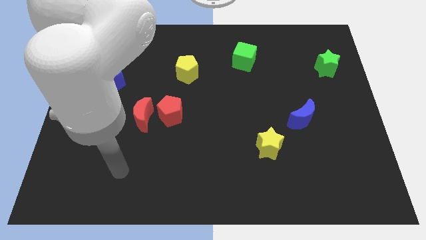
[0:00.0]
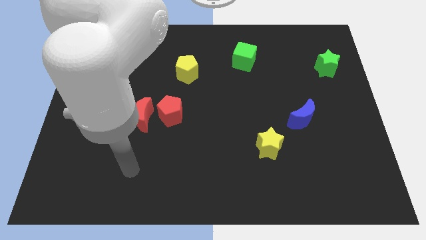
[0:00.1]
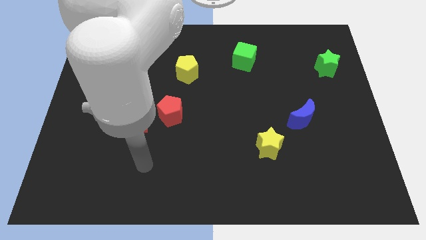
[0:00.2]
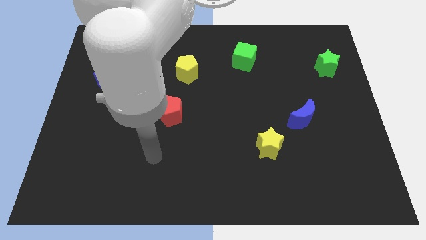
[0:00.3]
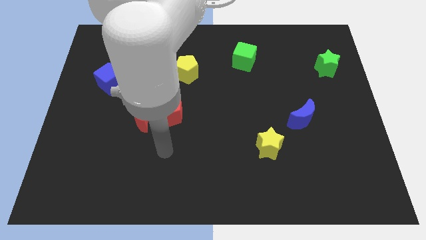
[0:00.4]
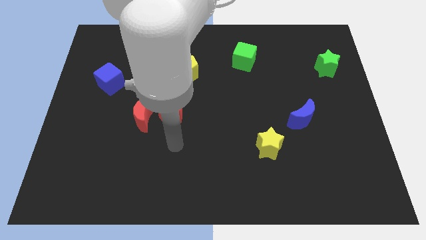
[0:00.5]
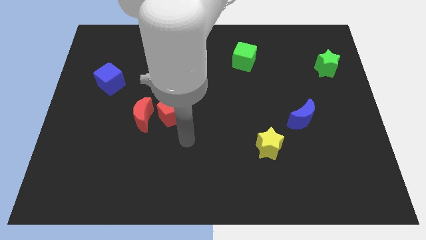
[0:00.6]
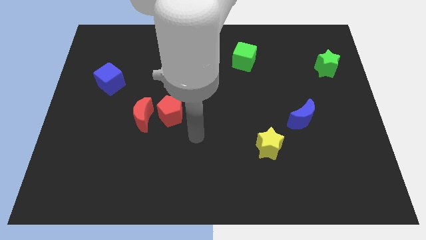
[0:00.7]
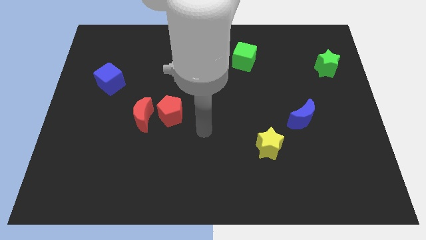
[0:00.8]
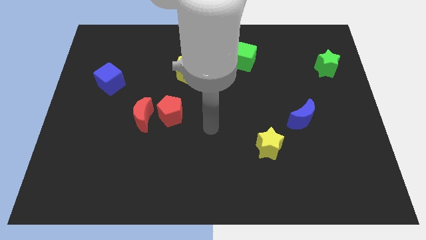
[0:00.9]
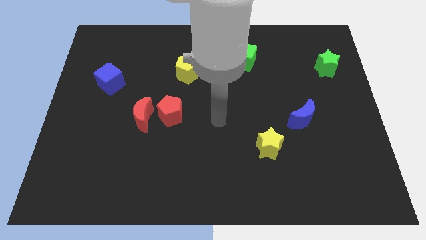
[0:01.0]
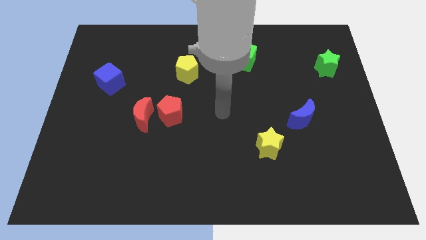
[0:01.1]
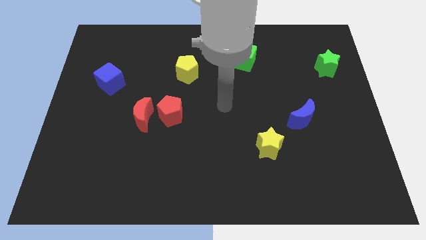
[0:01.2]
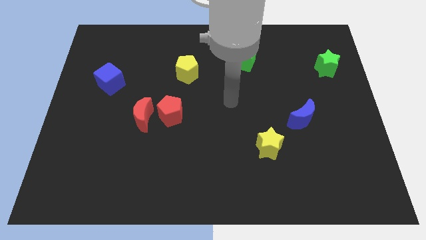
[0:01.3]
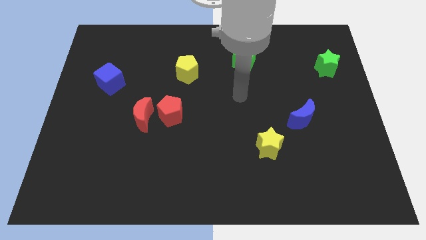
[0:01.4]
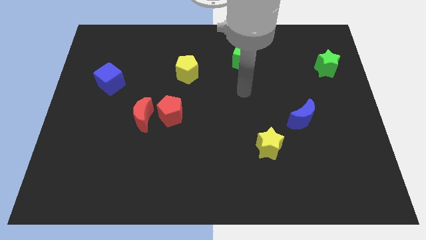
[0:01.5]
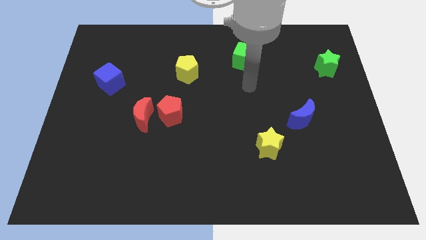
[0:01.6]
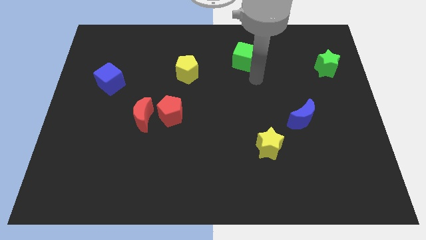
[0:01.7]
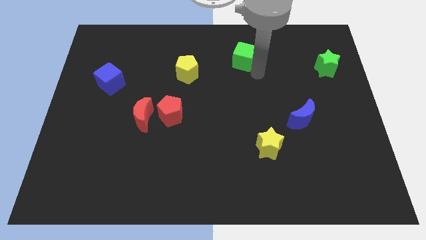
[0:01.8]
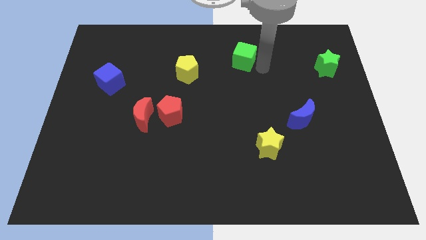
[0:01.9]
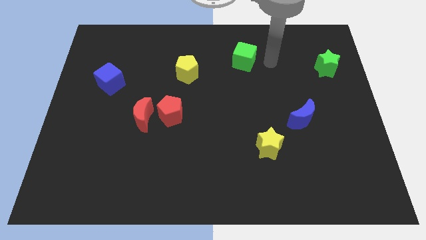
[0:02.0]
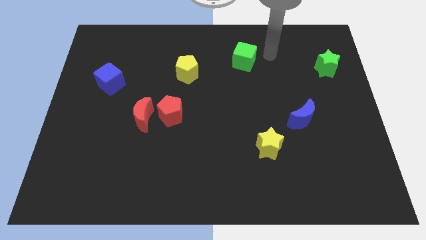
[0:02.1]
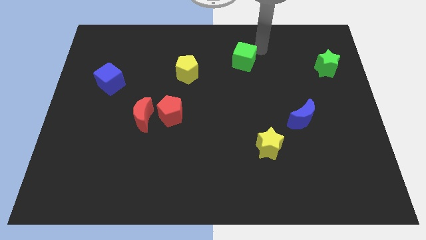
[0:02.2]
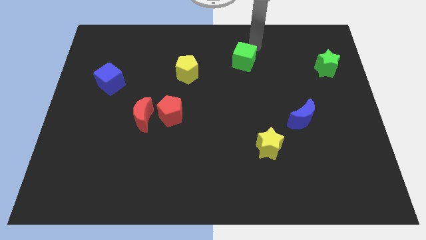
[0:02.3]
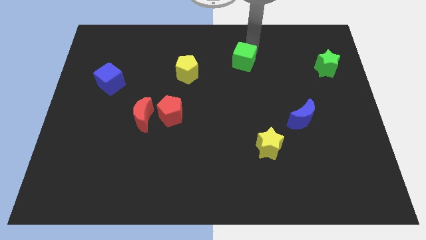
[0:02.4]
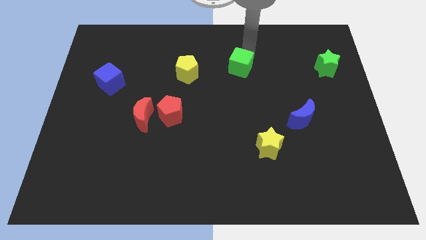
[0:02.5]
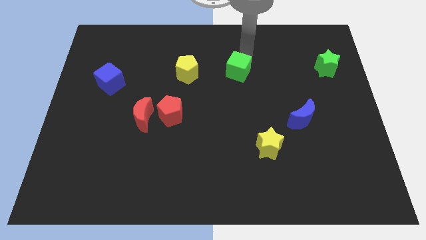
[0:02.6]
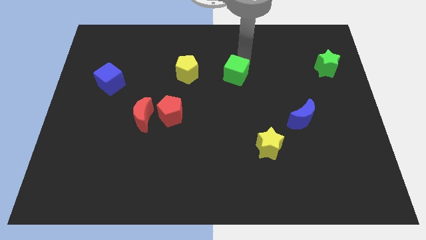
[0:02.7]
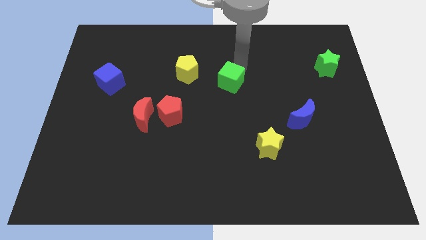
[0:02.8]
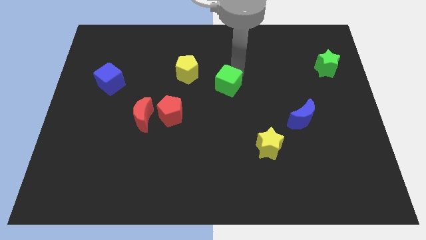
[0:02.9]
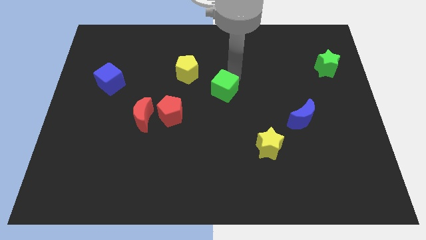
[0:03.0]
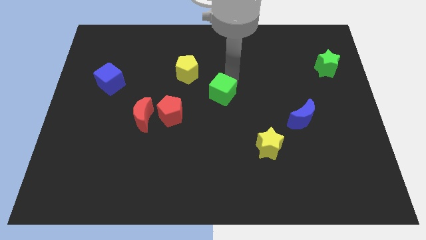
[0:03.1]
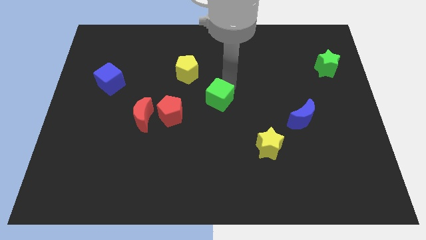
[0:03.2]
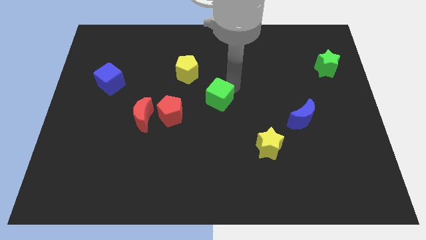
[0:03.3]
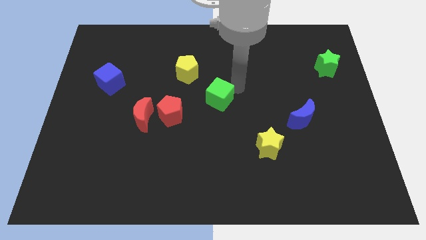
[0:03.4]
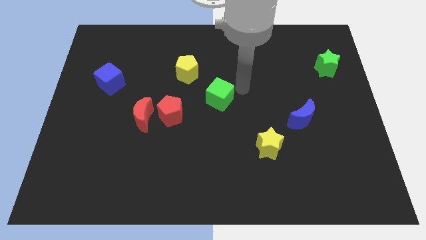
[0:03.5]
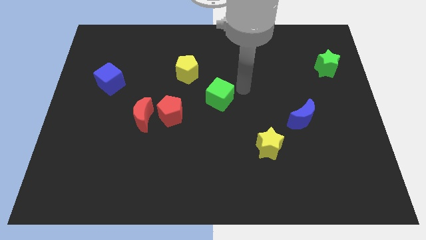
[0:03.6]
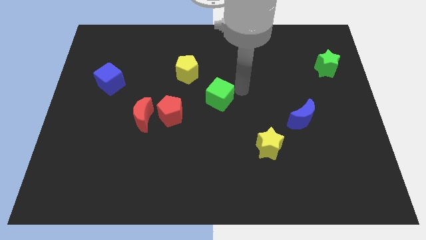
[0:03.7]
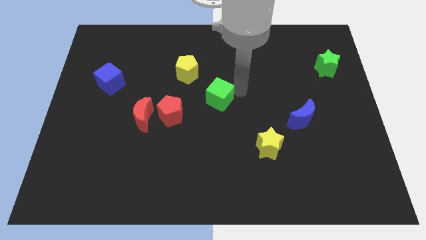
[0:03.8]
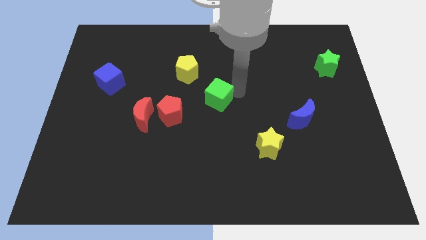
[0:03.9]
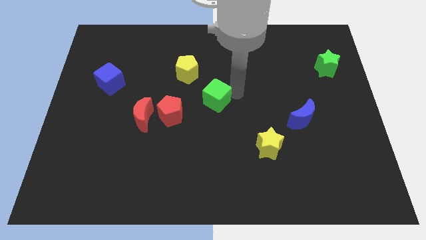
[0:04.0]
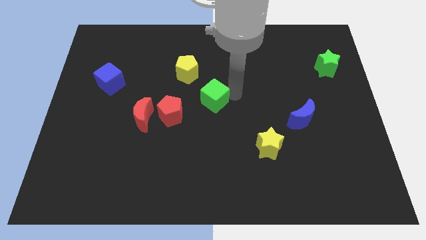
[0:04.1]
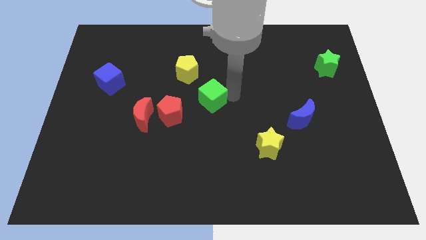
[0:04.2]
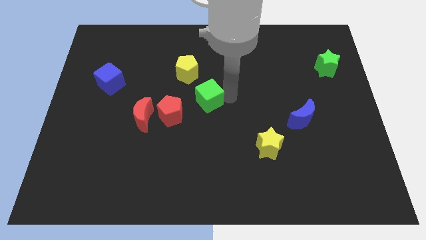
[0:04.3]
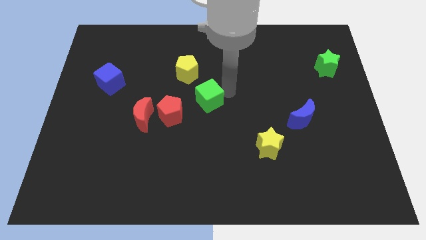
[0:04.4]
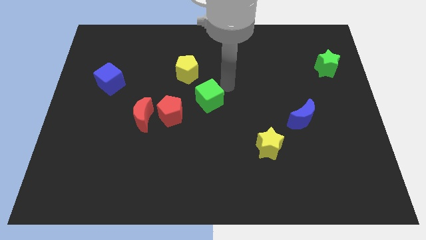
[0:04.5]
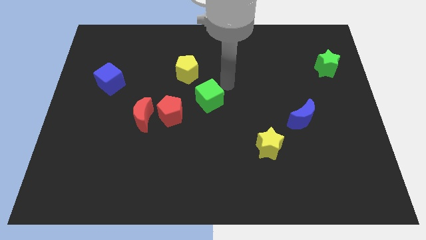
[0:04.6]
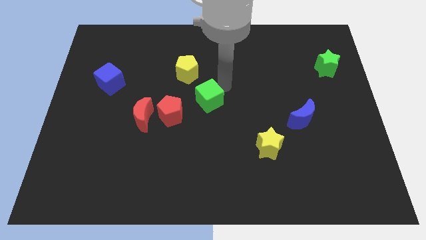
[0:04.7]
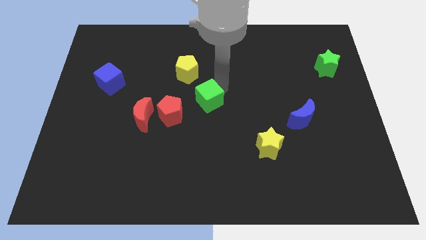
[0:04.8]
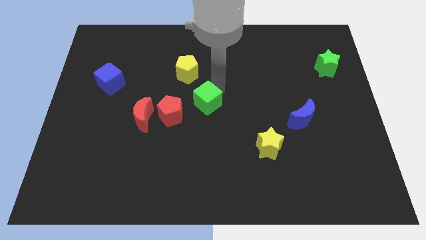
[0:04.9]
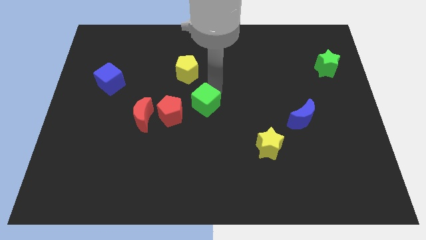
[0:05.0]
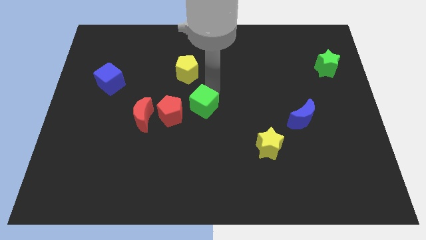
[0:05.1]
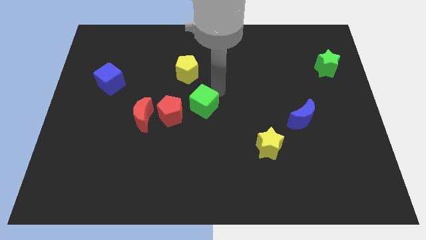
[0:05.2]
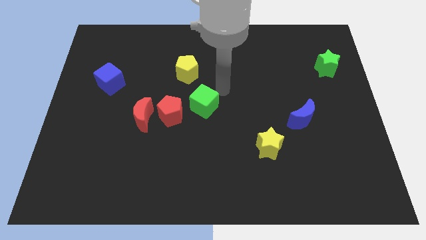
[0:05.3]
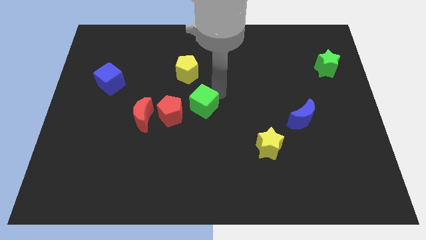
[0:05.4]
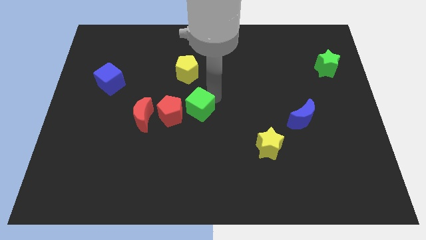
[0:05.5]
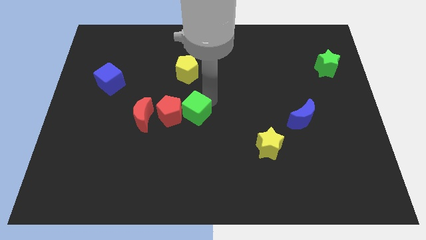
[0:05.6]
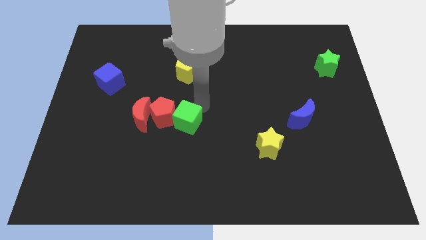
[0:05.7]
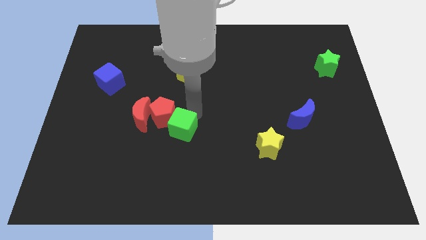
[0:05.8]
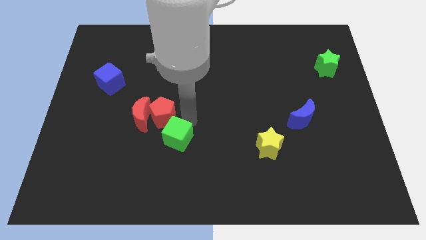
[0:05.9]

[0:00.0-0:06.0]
slide the green cube to the bottom of the red pentagon
